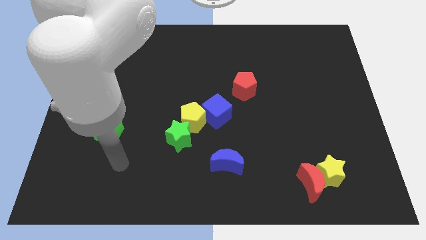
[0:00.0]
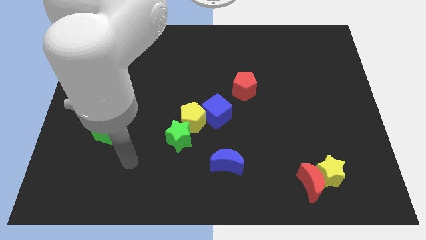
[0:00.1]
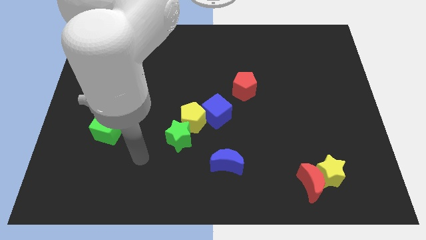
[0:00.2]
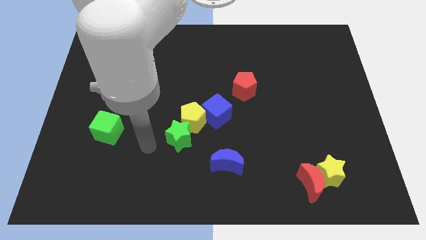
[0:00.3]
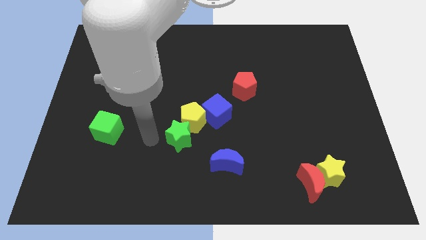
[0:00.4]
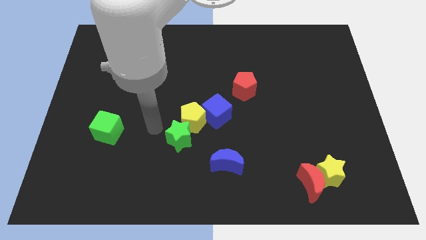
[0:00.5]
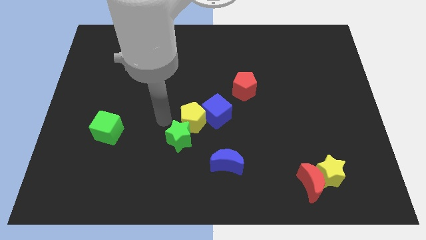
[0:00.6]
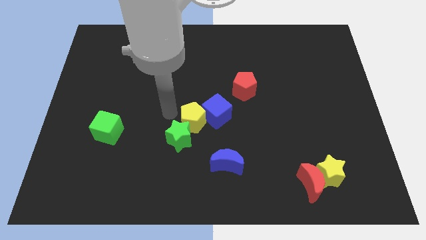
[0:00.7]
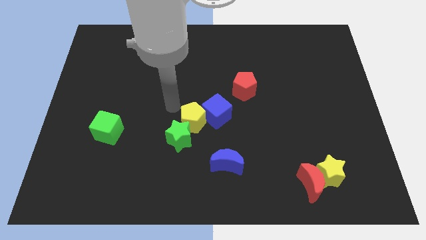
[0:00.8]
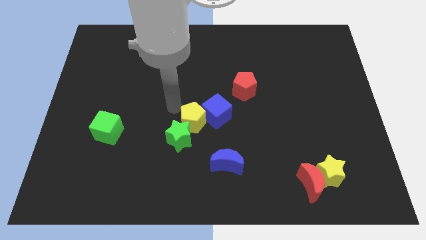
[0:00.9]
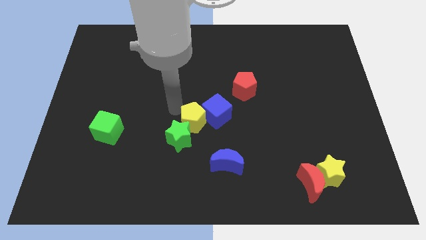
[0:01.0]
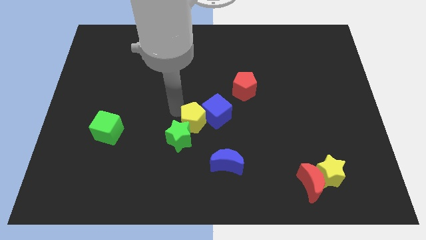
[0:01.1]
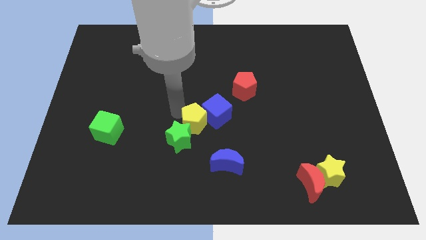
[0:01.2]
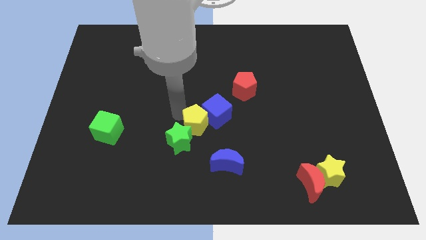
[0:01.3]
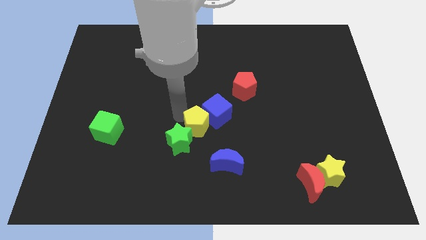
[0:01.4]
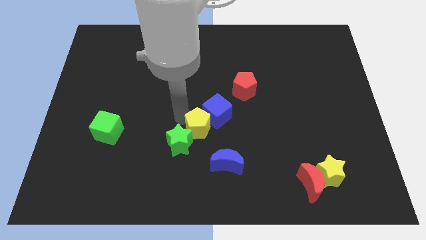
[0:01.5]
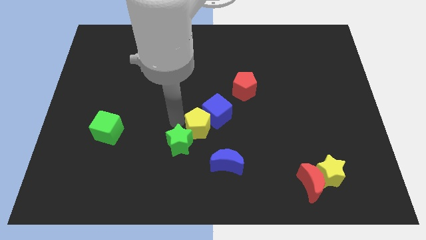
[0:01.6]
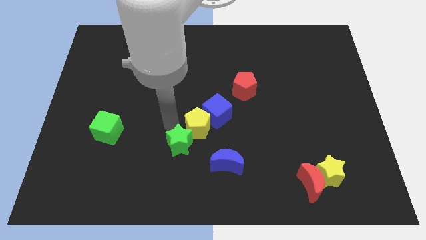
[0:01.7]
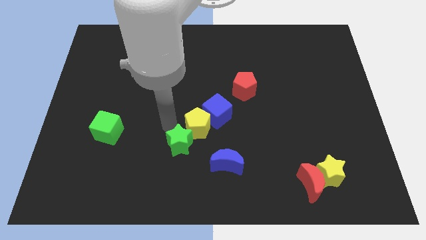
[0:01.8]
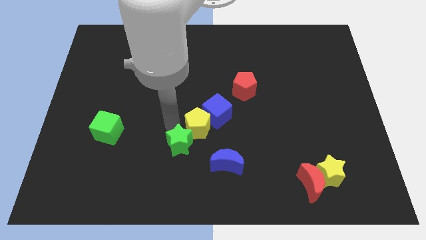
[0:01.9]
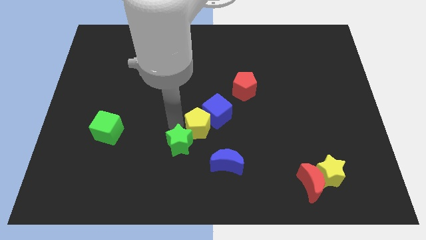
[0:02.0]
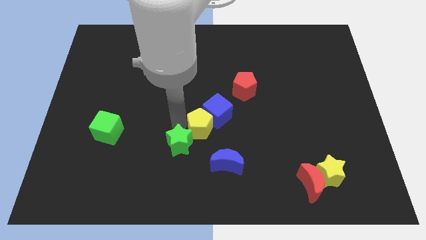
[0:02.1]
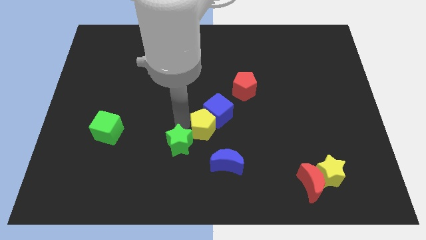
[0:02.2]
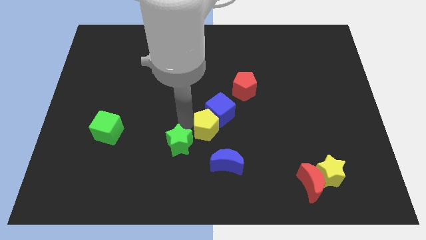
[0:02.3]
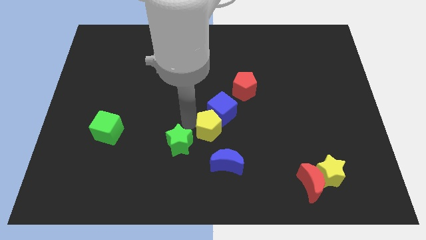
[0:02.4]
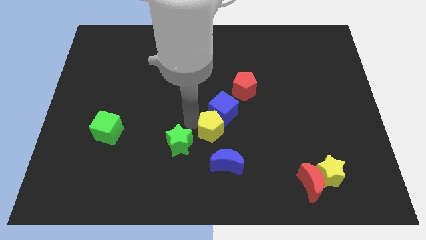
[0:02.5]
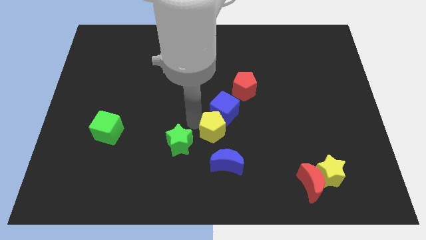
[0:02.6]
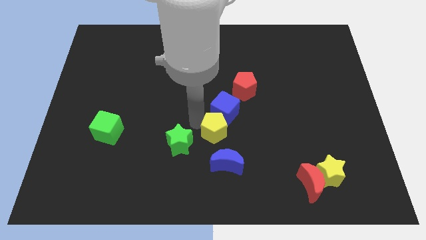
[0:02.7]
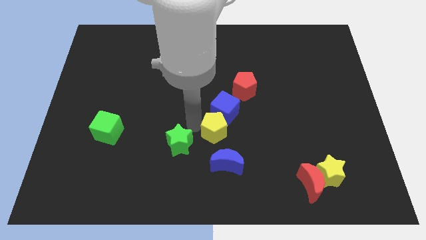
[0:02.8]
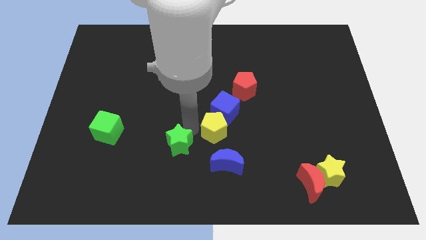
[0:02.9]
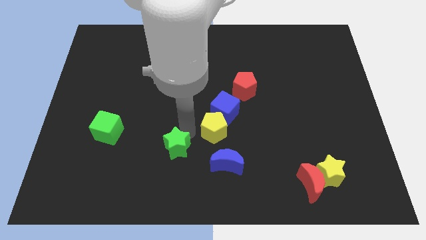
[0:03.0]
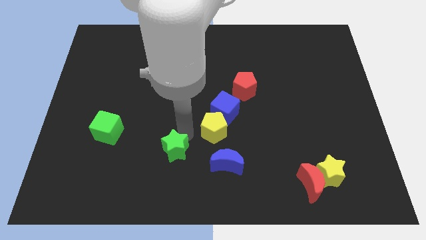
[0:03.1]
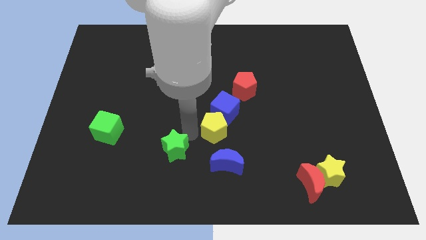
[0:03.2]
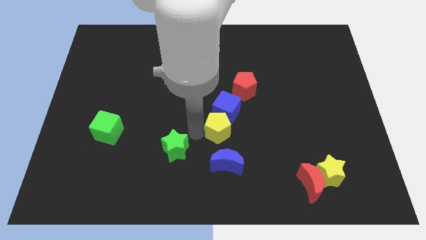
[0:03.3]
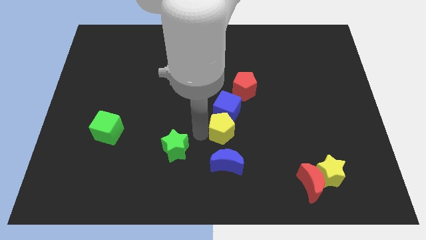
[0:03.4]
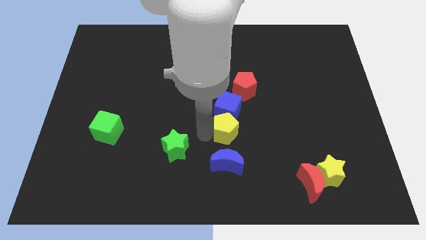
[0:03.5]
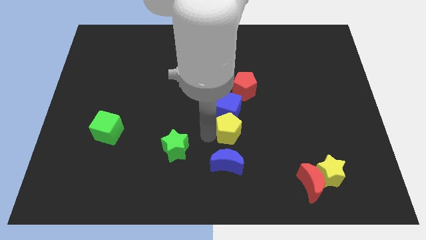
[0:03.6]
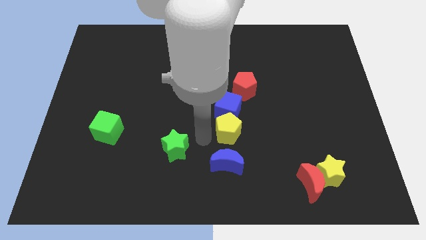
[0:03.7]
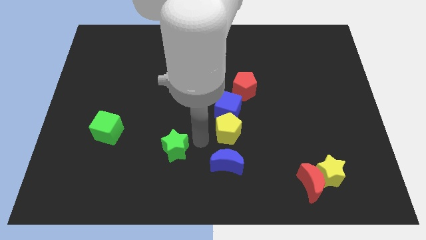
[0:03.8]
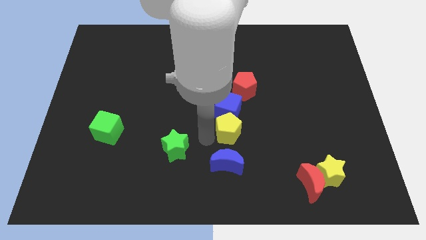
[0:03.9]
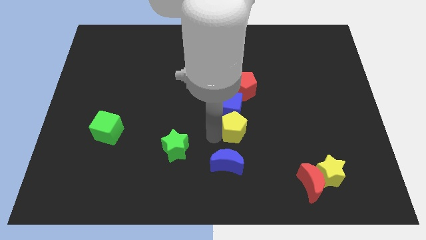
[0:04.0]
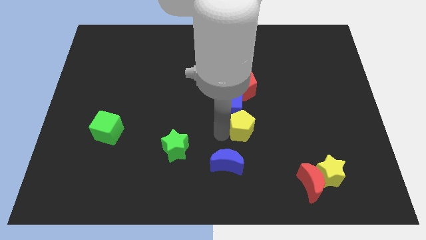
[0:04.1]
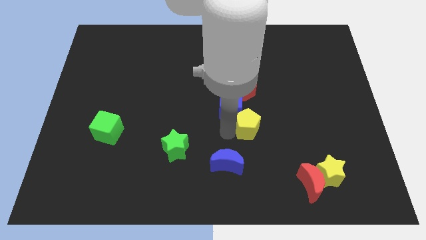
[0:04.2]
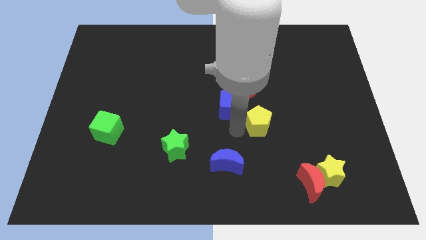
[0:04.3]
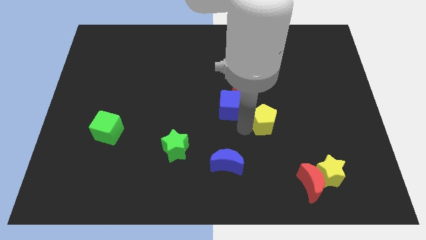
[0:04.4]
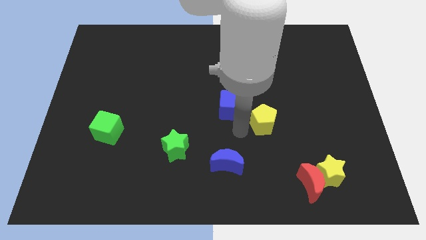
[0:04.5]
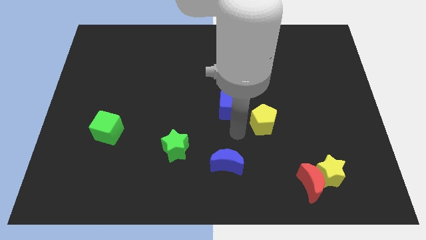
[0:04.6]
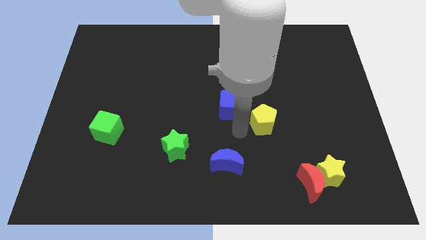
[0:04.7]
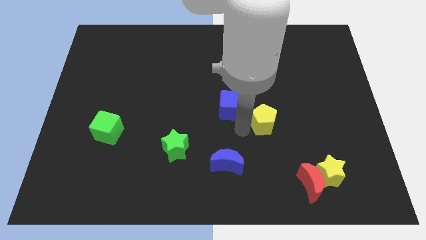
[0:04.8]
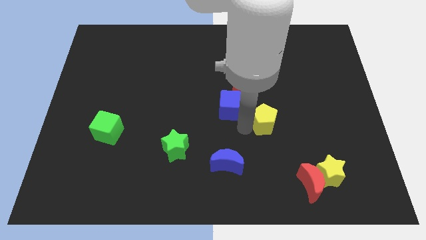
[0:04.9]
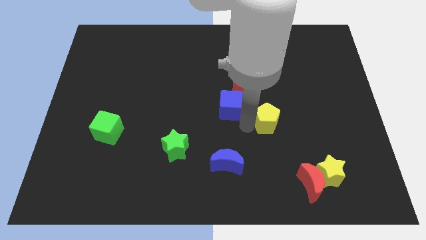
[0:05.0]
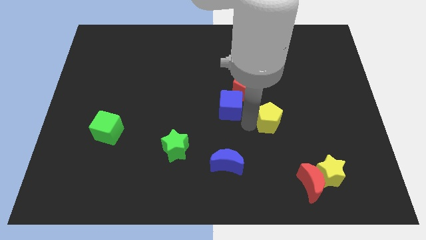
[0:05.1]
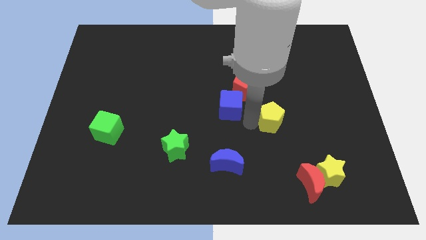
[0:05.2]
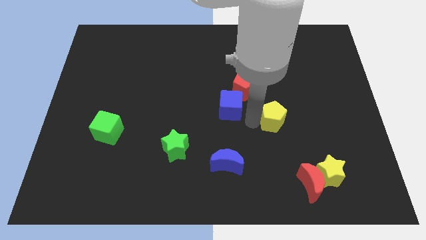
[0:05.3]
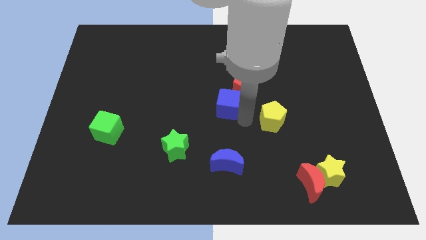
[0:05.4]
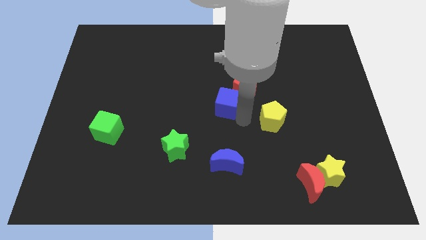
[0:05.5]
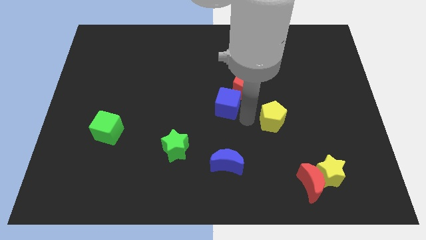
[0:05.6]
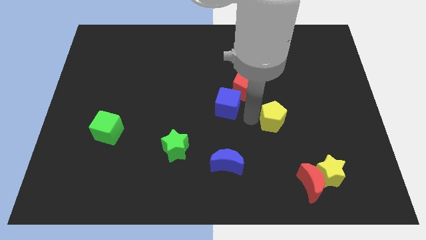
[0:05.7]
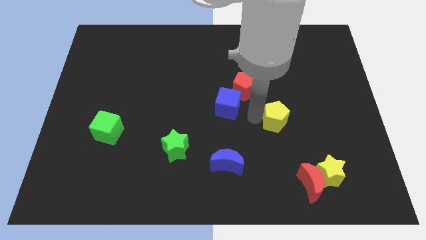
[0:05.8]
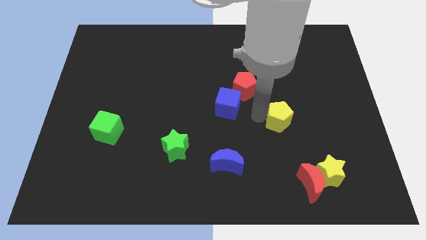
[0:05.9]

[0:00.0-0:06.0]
slide the yellow pentagon to the right

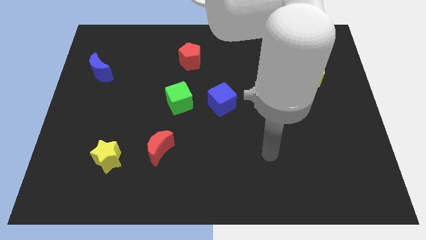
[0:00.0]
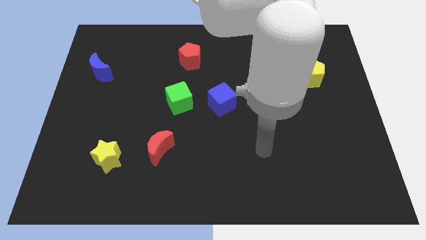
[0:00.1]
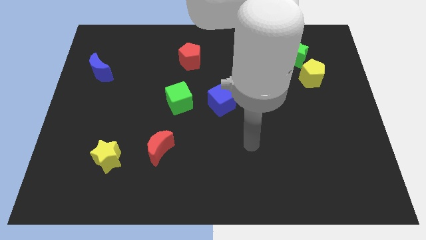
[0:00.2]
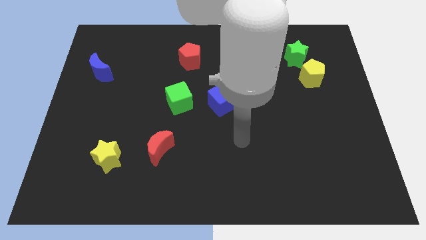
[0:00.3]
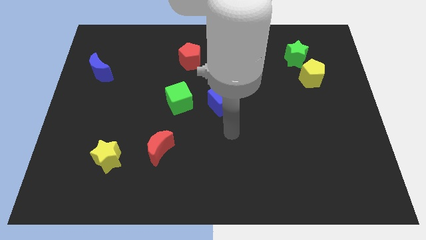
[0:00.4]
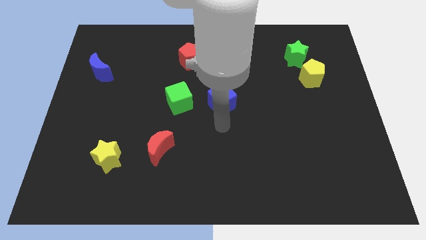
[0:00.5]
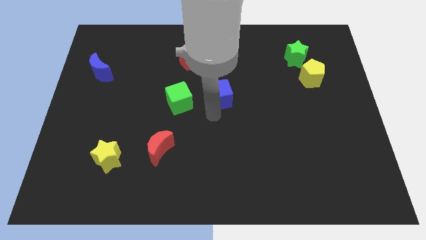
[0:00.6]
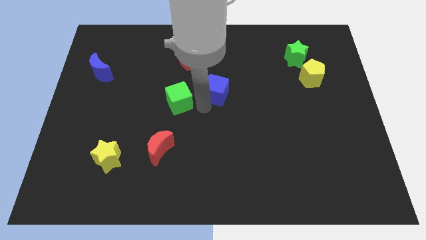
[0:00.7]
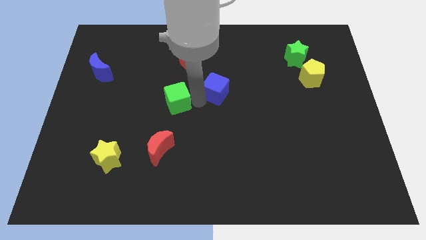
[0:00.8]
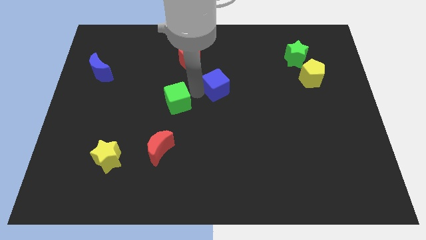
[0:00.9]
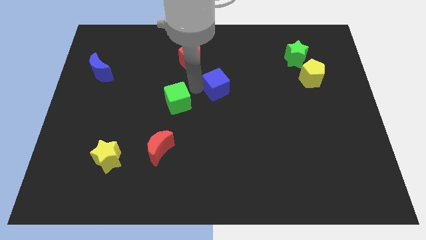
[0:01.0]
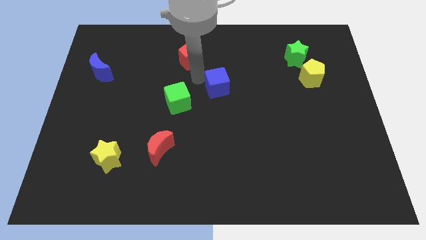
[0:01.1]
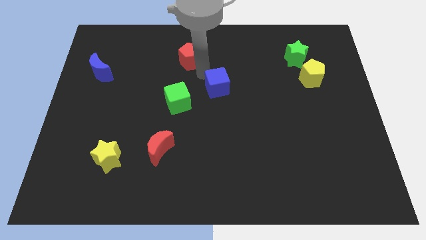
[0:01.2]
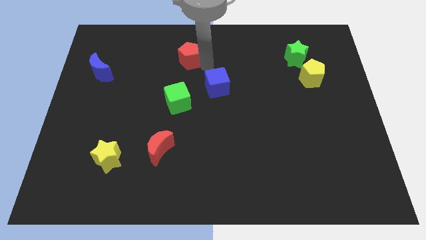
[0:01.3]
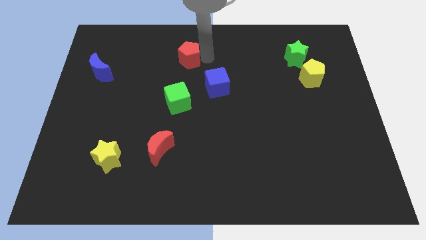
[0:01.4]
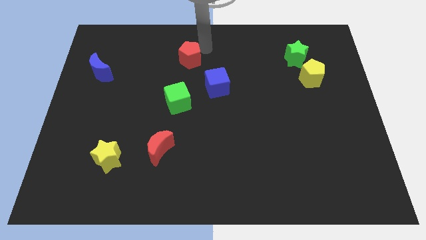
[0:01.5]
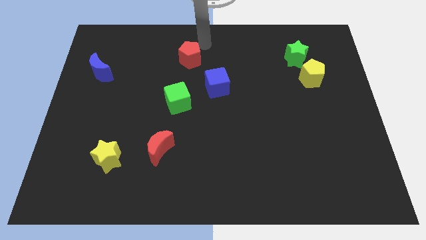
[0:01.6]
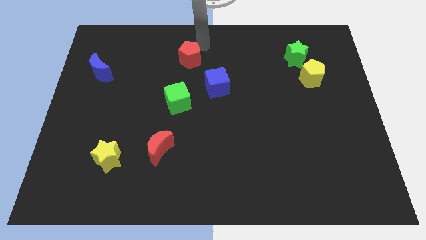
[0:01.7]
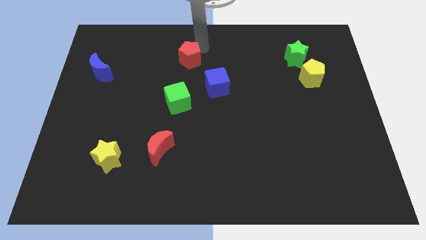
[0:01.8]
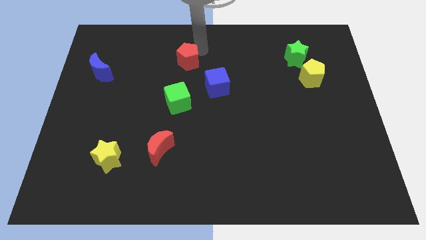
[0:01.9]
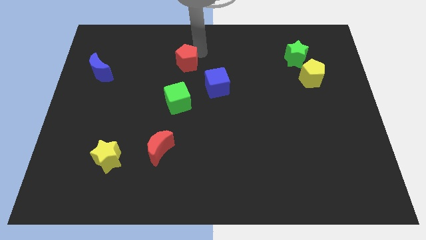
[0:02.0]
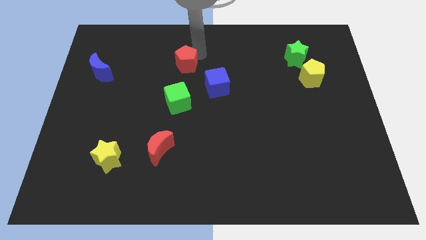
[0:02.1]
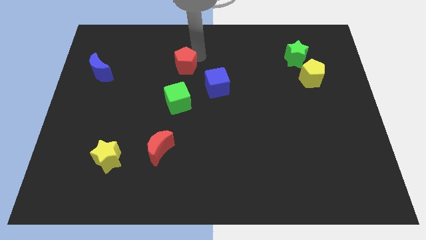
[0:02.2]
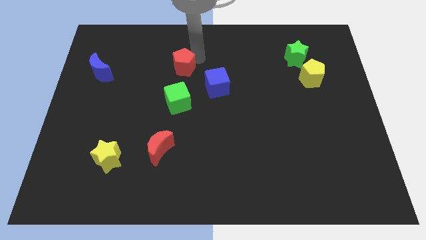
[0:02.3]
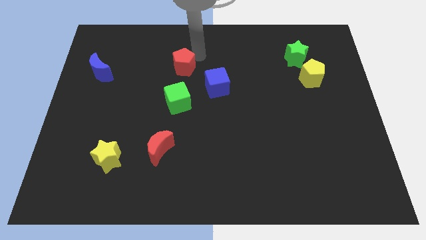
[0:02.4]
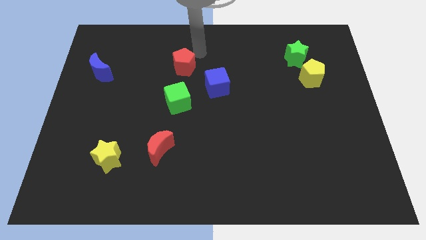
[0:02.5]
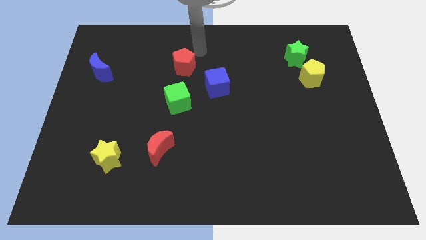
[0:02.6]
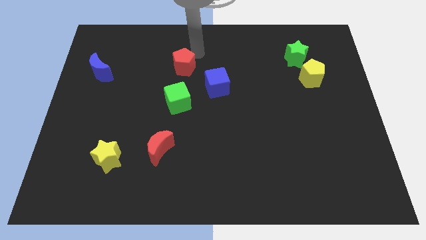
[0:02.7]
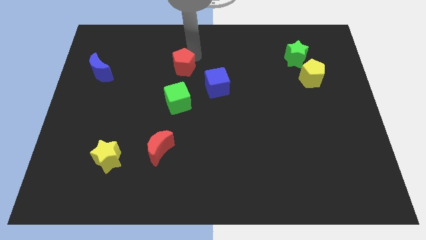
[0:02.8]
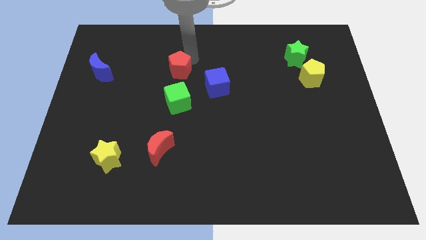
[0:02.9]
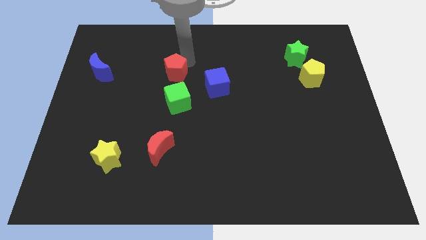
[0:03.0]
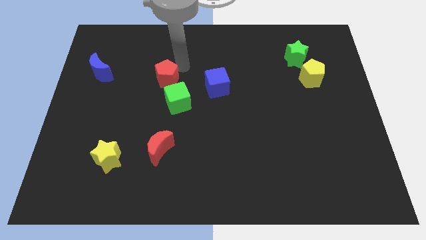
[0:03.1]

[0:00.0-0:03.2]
slightly push the red pentagon downwards and then to the left
